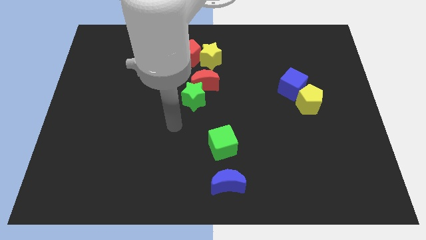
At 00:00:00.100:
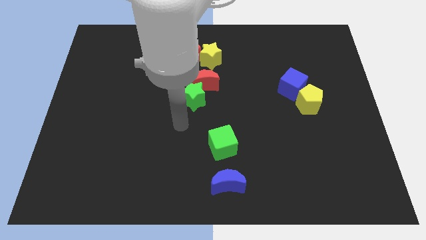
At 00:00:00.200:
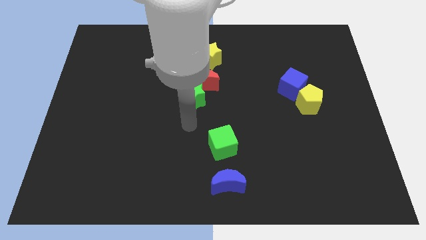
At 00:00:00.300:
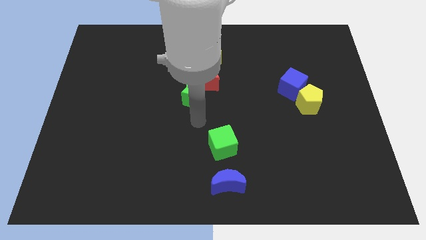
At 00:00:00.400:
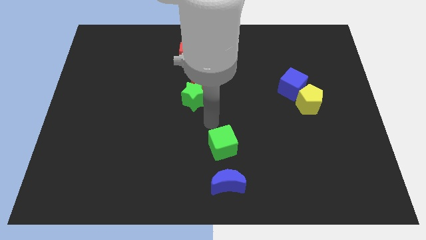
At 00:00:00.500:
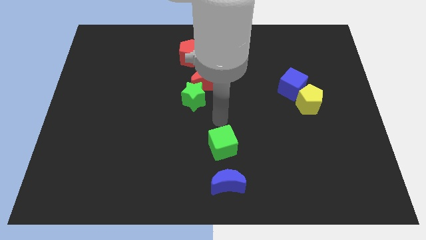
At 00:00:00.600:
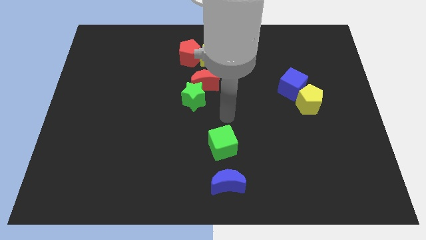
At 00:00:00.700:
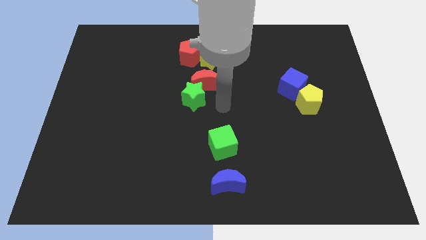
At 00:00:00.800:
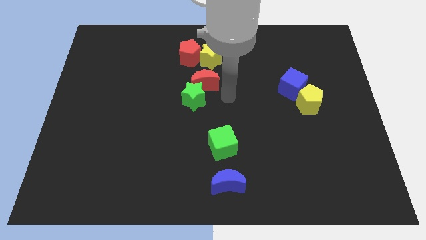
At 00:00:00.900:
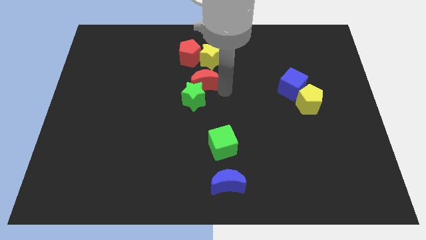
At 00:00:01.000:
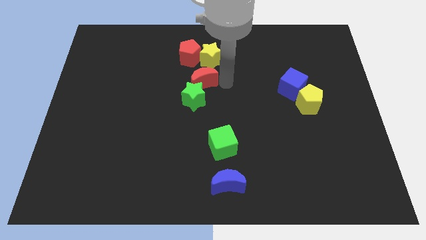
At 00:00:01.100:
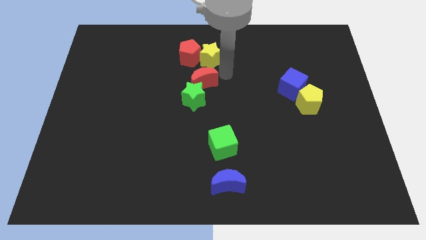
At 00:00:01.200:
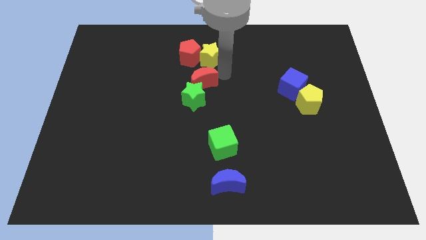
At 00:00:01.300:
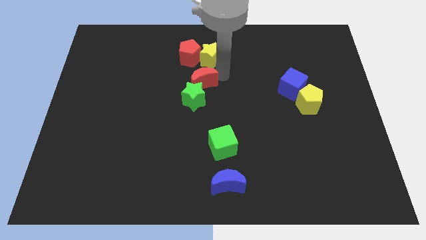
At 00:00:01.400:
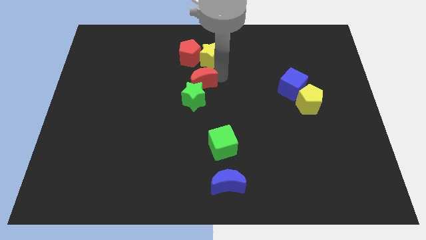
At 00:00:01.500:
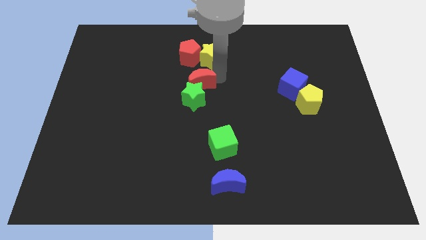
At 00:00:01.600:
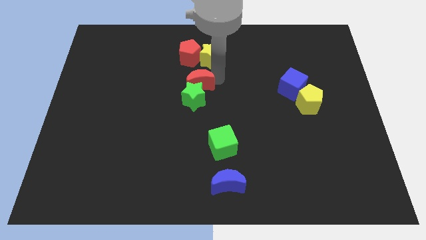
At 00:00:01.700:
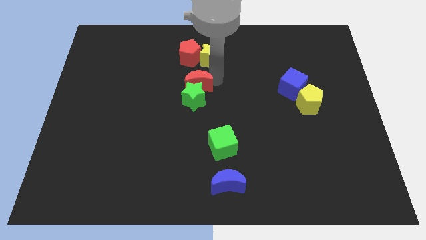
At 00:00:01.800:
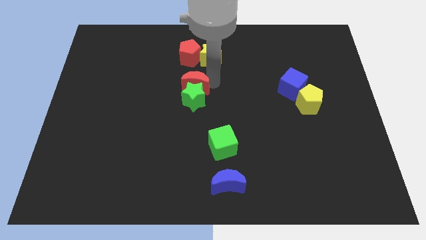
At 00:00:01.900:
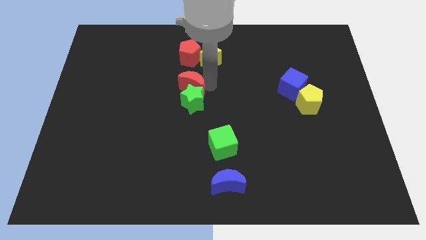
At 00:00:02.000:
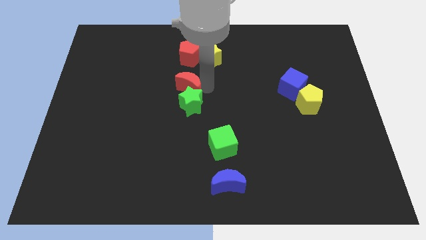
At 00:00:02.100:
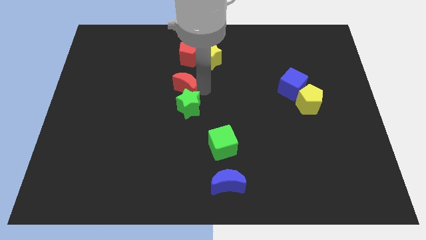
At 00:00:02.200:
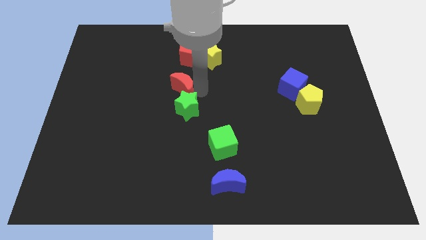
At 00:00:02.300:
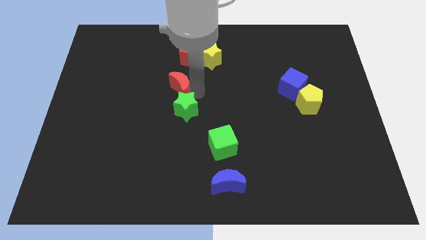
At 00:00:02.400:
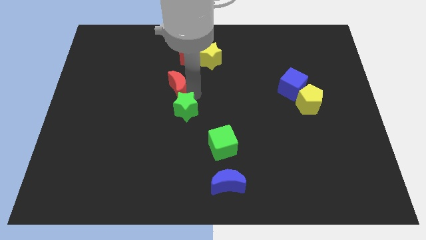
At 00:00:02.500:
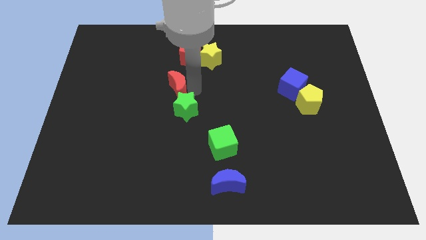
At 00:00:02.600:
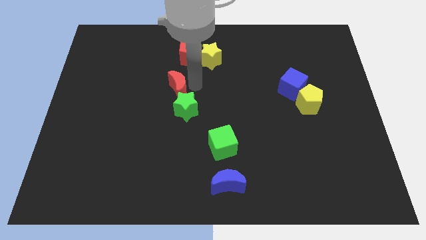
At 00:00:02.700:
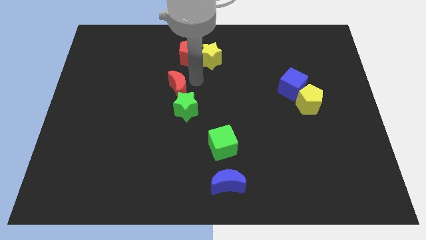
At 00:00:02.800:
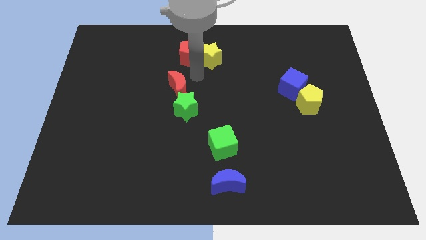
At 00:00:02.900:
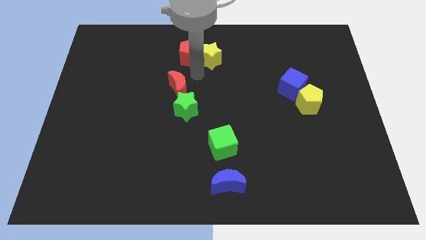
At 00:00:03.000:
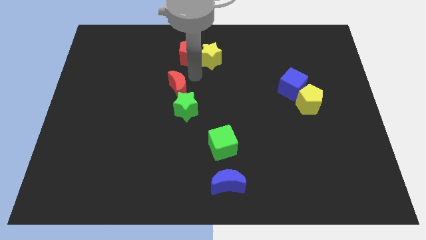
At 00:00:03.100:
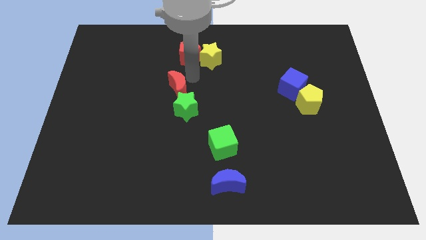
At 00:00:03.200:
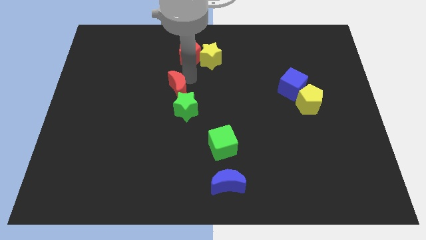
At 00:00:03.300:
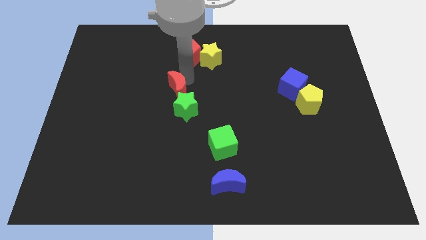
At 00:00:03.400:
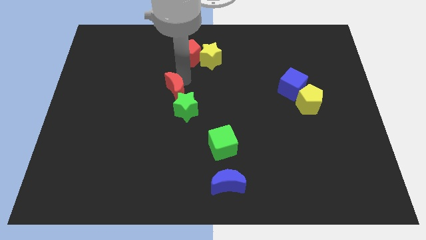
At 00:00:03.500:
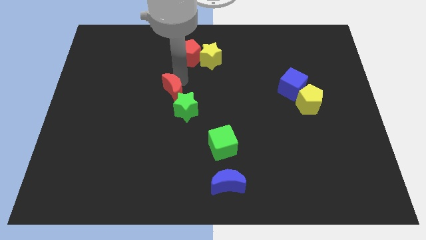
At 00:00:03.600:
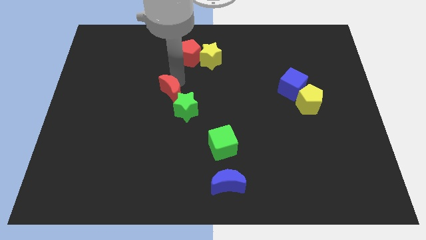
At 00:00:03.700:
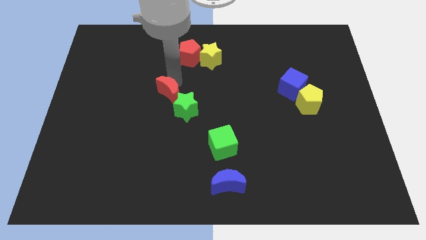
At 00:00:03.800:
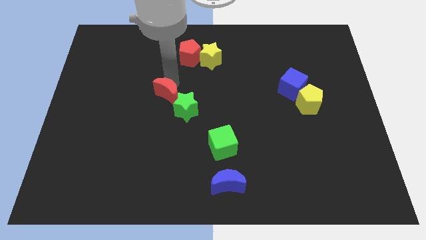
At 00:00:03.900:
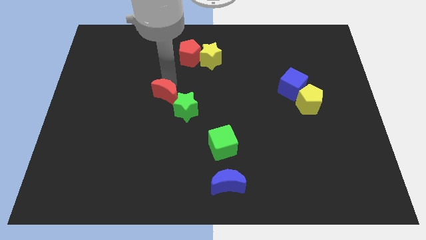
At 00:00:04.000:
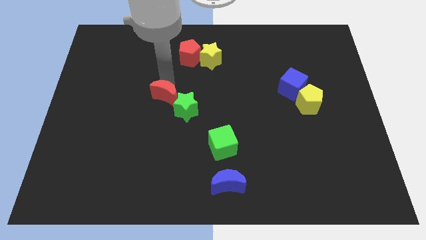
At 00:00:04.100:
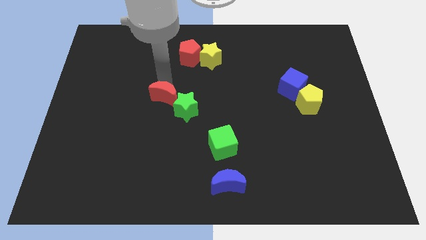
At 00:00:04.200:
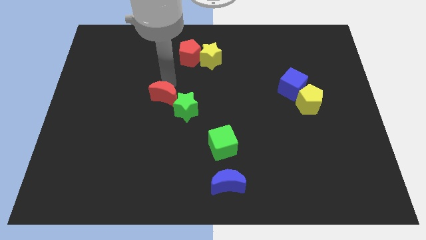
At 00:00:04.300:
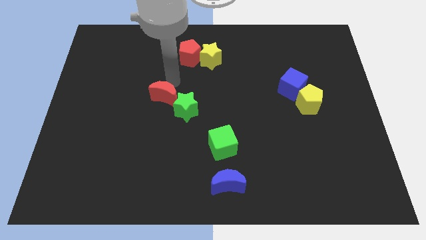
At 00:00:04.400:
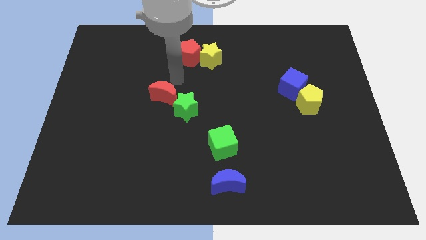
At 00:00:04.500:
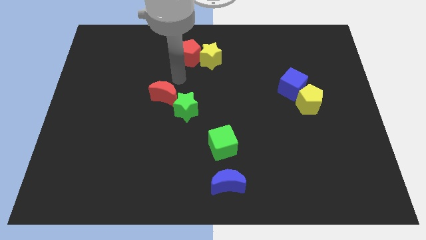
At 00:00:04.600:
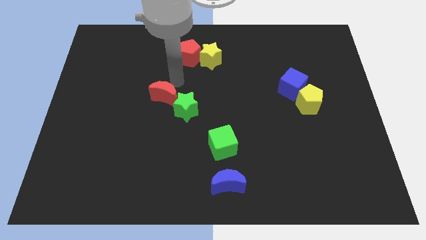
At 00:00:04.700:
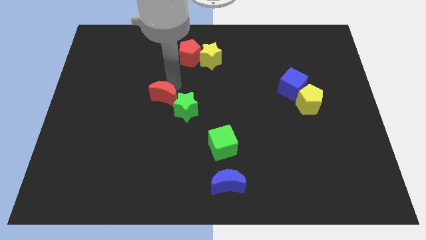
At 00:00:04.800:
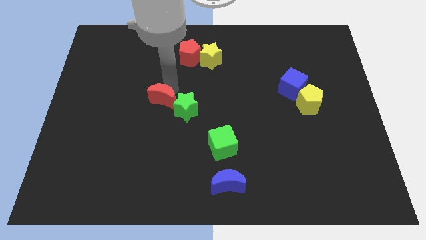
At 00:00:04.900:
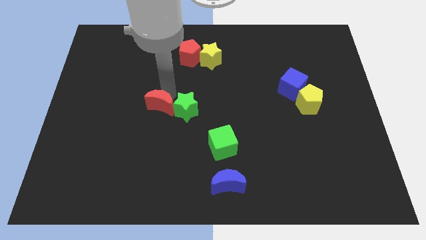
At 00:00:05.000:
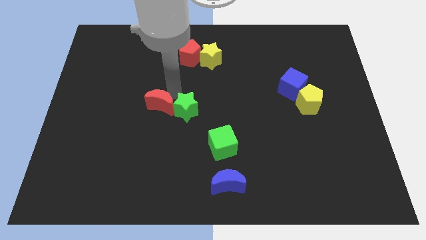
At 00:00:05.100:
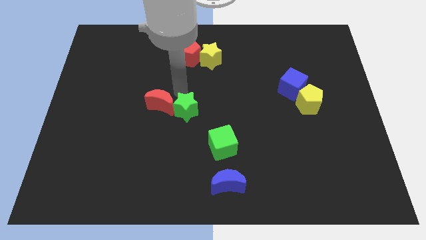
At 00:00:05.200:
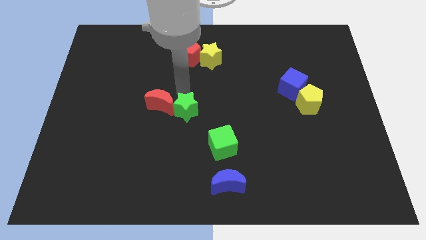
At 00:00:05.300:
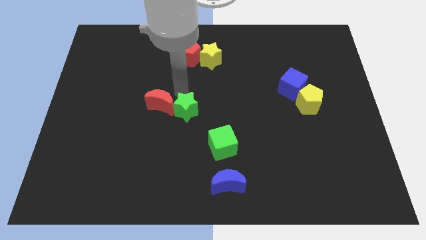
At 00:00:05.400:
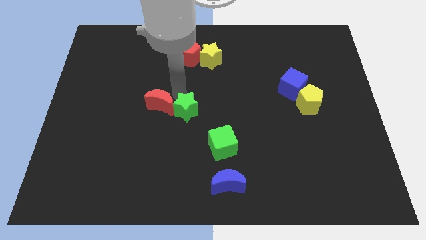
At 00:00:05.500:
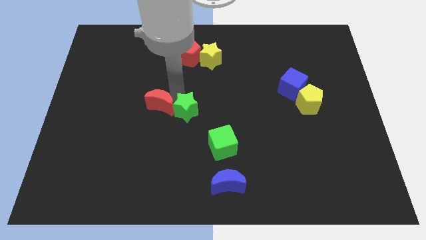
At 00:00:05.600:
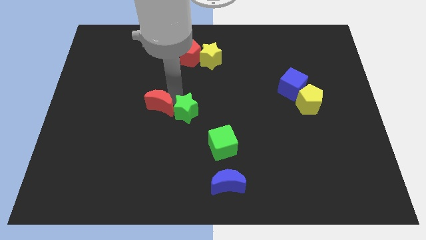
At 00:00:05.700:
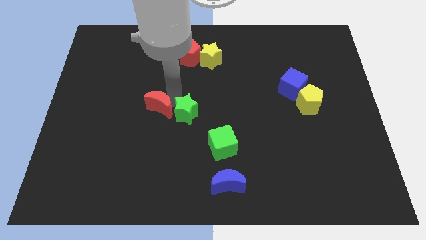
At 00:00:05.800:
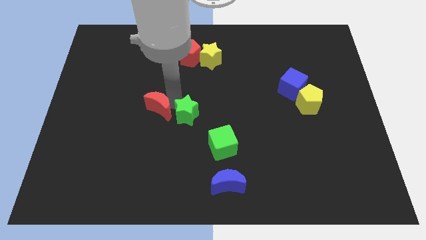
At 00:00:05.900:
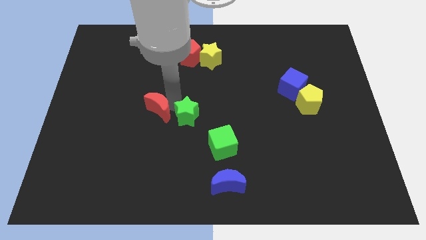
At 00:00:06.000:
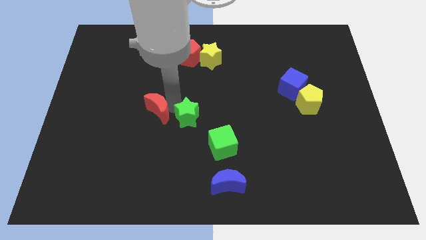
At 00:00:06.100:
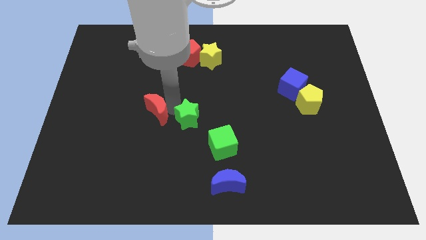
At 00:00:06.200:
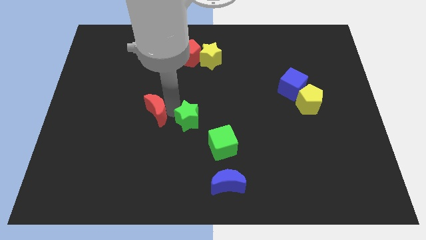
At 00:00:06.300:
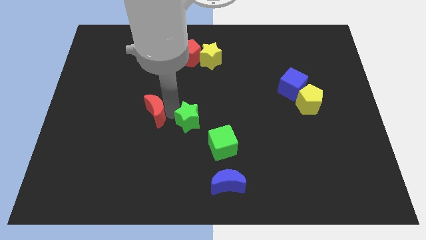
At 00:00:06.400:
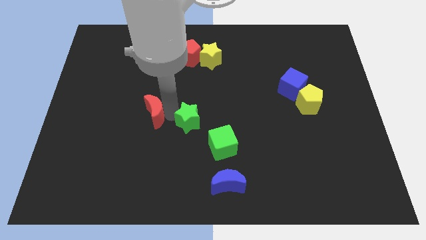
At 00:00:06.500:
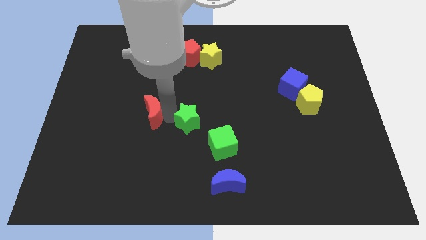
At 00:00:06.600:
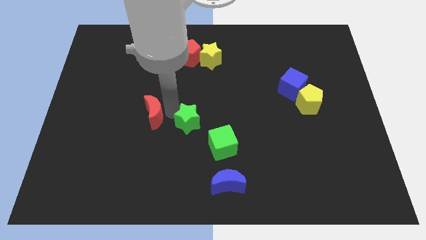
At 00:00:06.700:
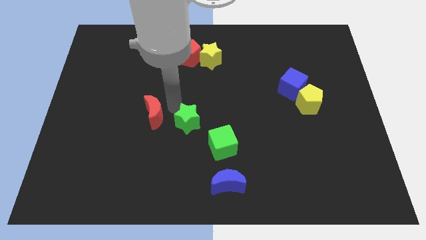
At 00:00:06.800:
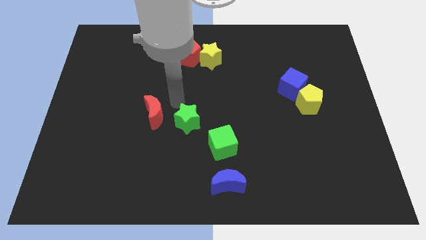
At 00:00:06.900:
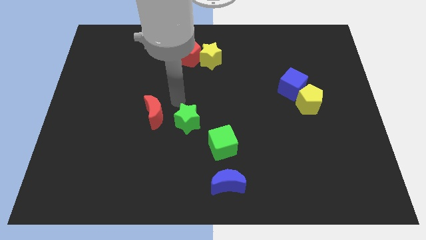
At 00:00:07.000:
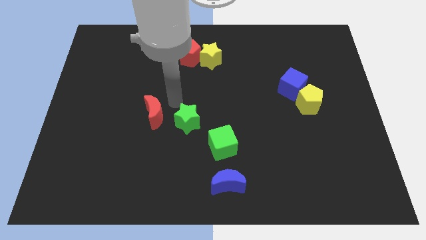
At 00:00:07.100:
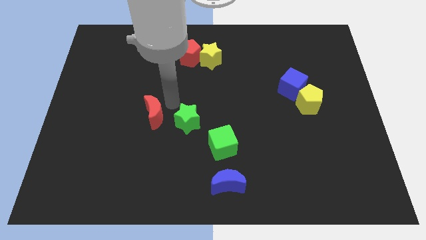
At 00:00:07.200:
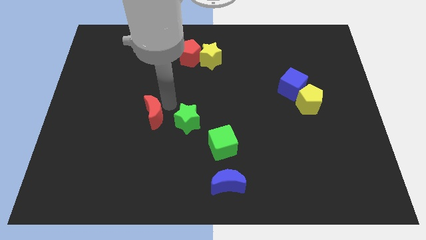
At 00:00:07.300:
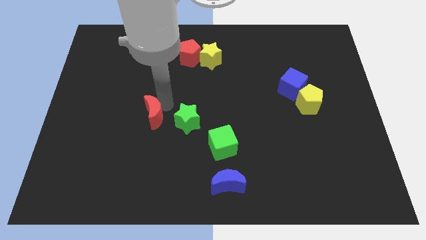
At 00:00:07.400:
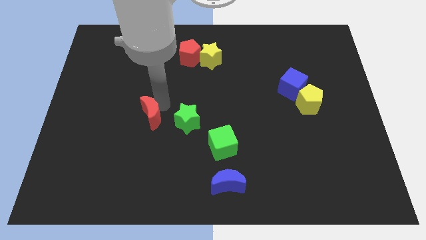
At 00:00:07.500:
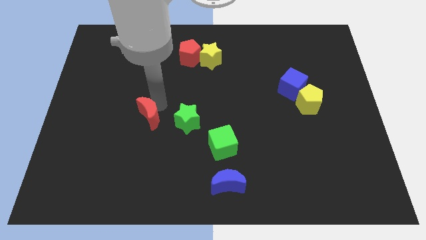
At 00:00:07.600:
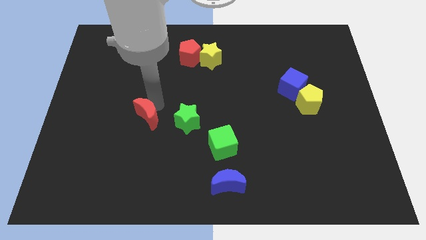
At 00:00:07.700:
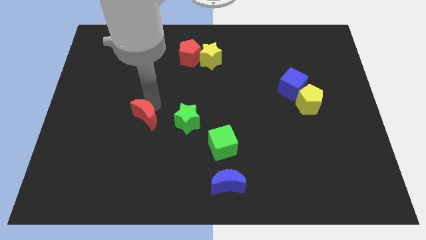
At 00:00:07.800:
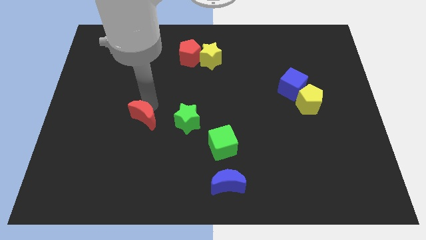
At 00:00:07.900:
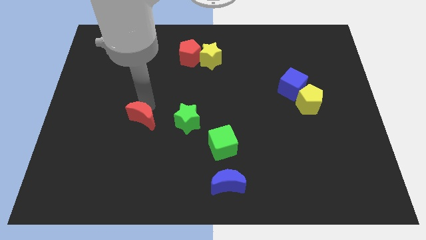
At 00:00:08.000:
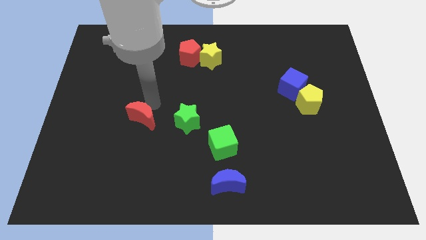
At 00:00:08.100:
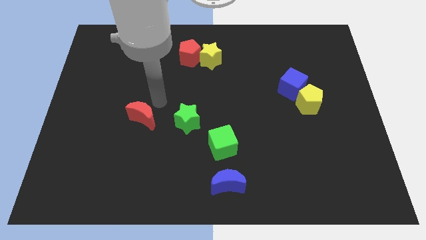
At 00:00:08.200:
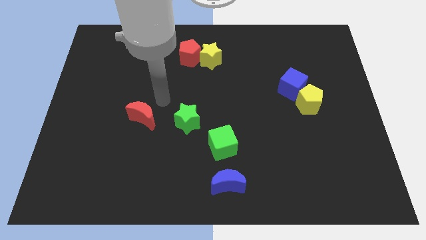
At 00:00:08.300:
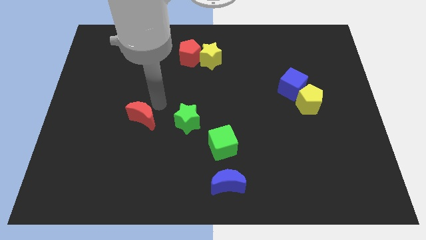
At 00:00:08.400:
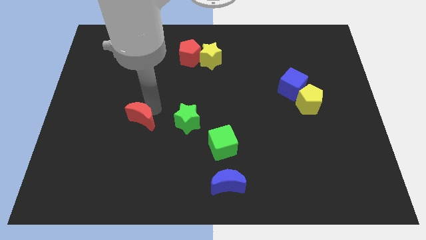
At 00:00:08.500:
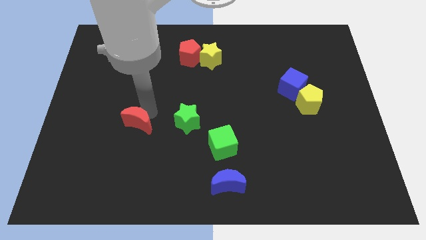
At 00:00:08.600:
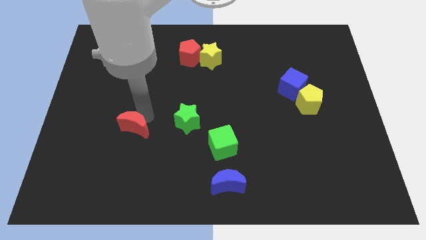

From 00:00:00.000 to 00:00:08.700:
push the red moon downwards and then left
